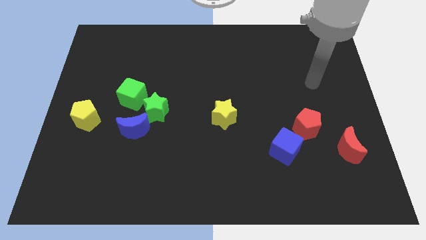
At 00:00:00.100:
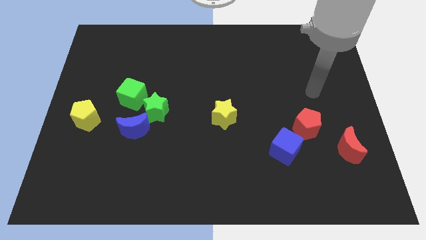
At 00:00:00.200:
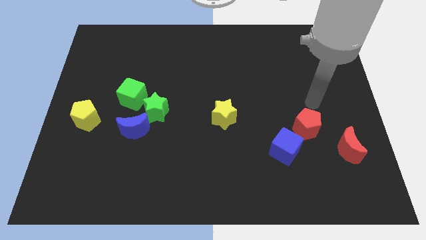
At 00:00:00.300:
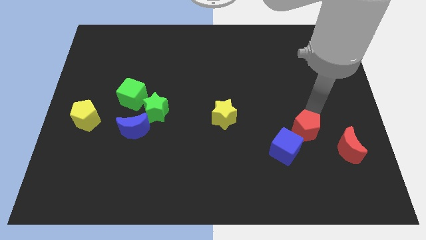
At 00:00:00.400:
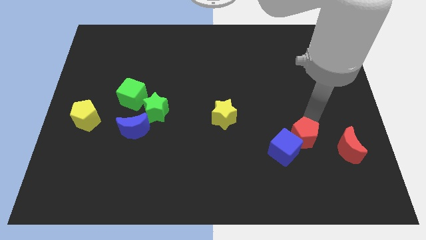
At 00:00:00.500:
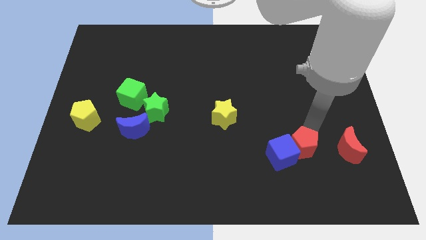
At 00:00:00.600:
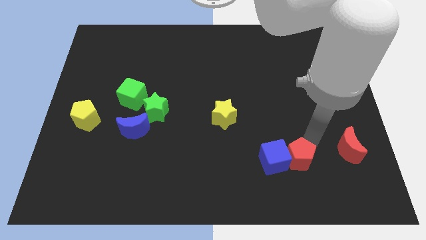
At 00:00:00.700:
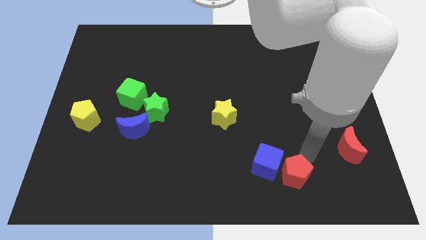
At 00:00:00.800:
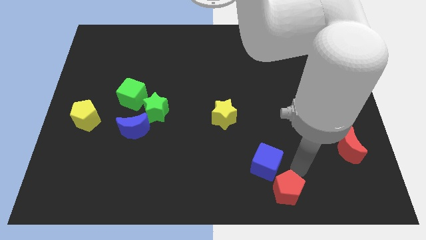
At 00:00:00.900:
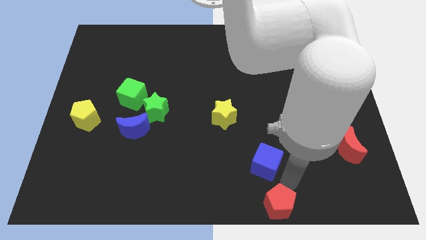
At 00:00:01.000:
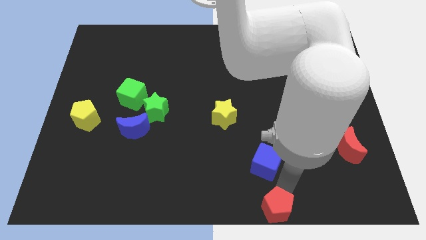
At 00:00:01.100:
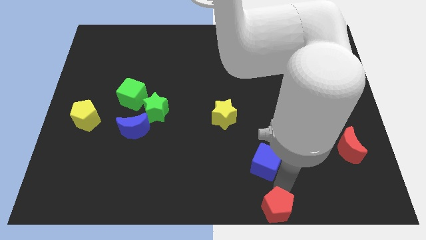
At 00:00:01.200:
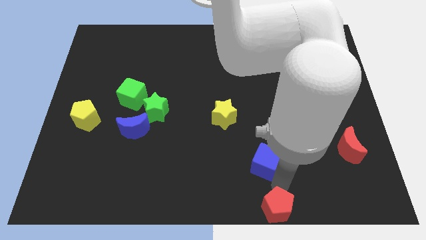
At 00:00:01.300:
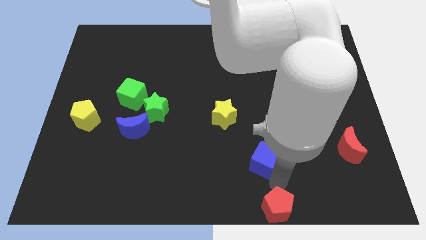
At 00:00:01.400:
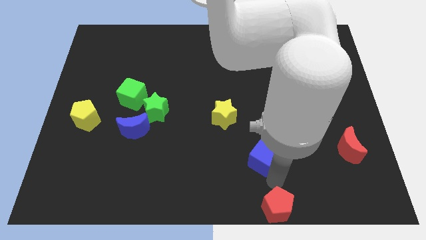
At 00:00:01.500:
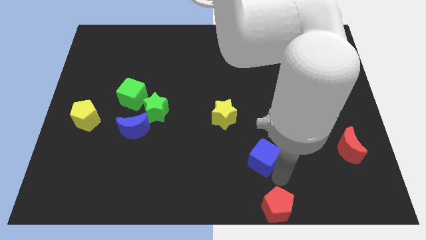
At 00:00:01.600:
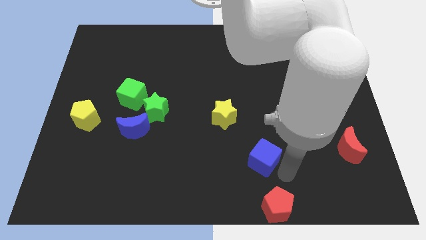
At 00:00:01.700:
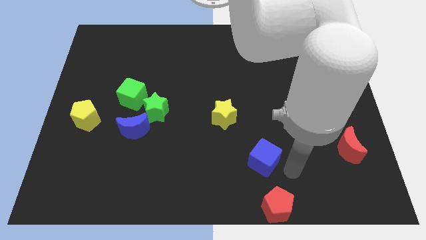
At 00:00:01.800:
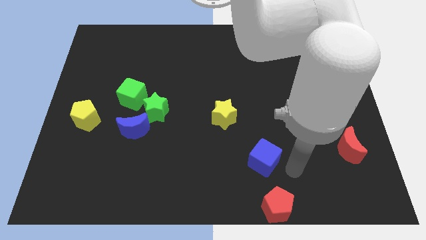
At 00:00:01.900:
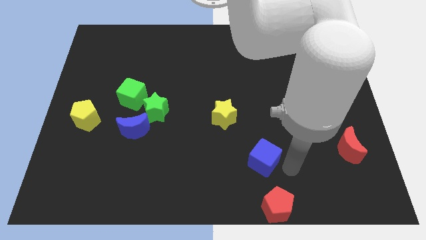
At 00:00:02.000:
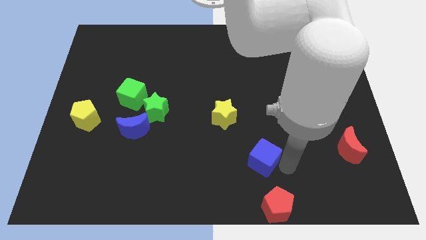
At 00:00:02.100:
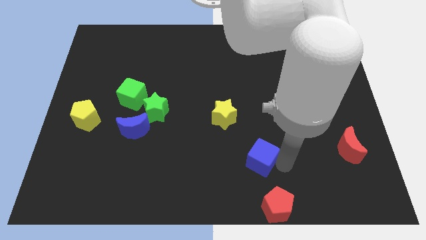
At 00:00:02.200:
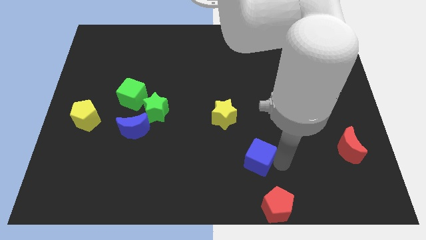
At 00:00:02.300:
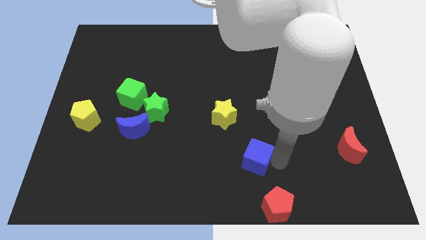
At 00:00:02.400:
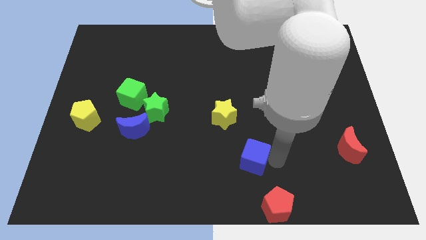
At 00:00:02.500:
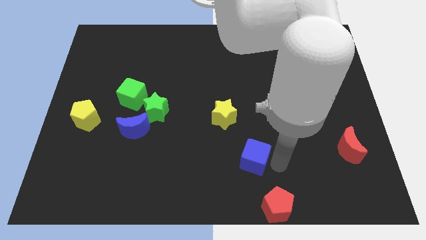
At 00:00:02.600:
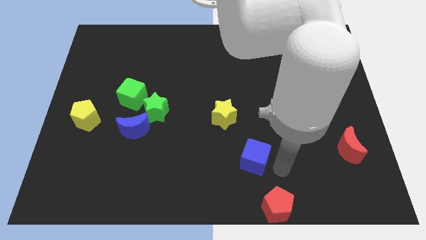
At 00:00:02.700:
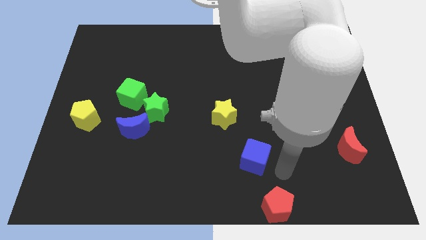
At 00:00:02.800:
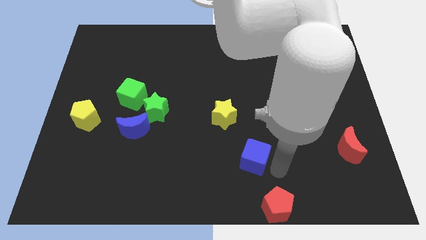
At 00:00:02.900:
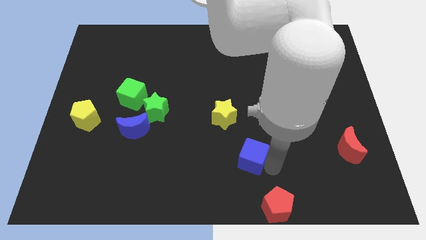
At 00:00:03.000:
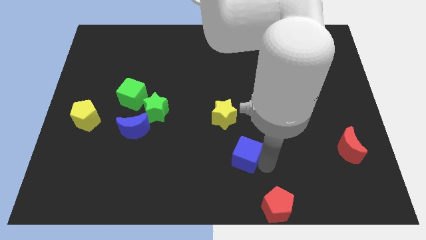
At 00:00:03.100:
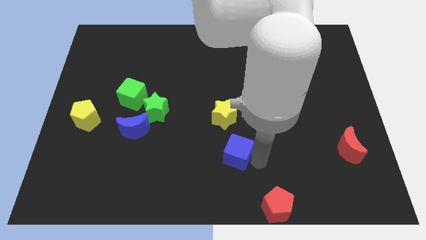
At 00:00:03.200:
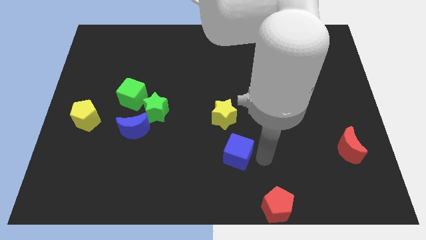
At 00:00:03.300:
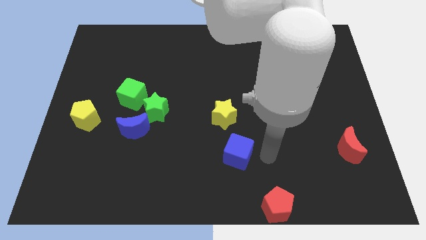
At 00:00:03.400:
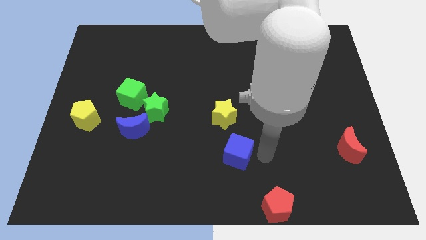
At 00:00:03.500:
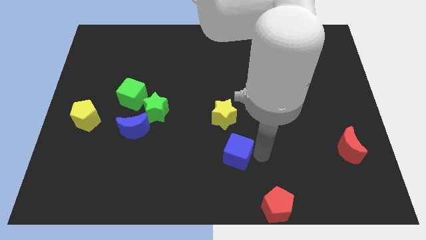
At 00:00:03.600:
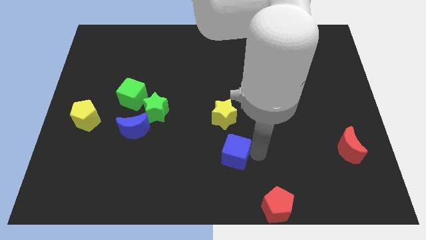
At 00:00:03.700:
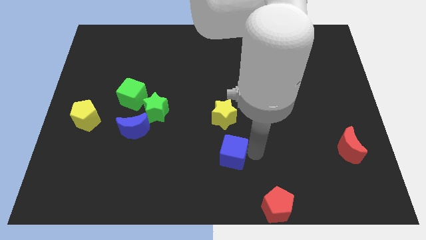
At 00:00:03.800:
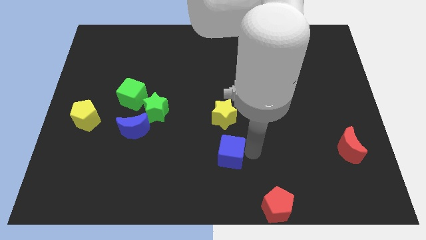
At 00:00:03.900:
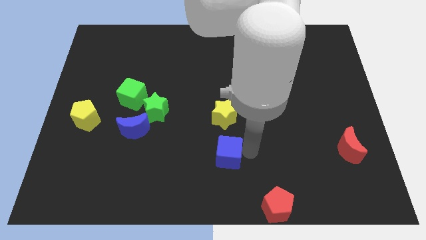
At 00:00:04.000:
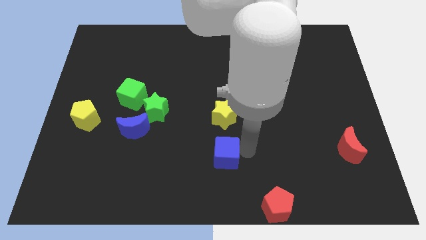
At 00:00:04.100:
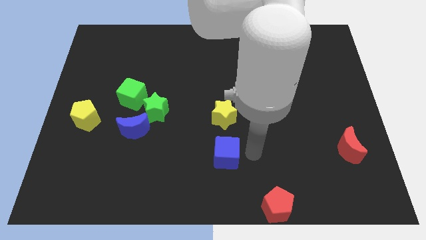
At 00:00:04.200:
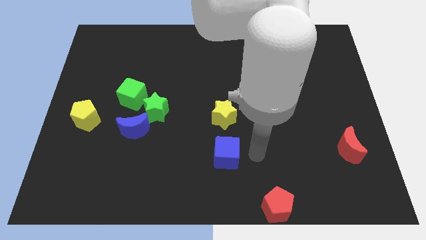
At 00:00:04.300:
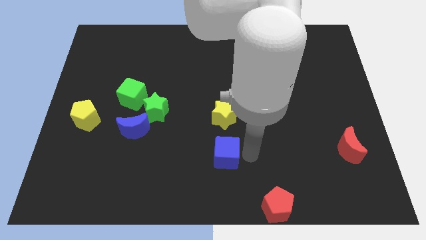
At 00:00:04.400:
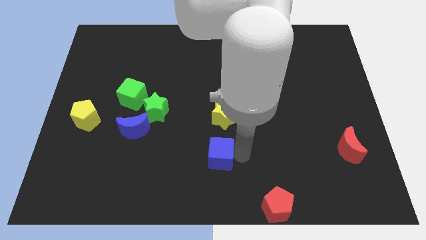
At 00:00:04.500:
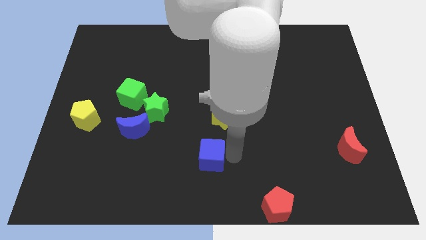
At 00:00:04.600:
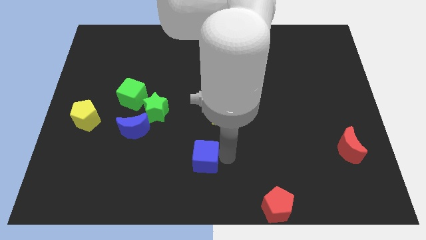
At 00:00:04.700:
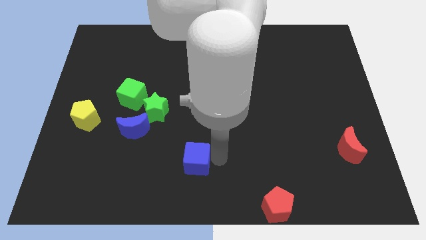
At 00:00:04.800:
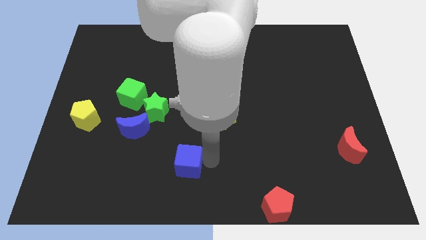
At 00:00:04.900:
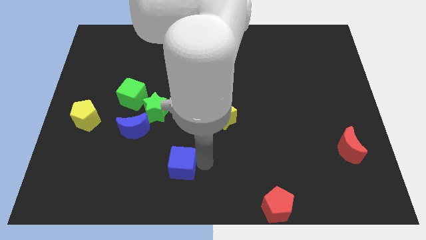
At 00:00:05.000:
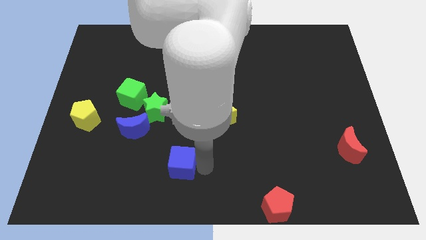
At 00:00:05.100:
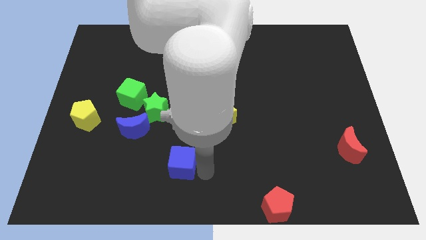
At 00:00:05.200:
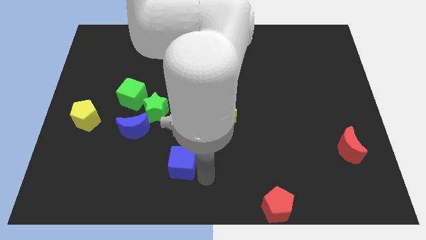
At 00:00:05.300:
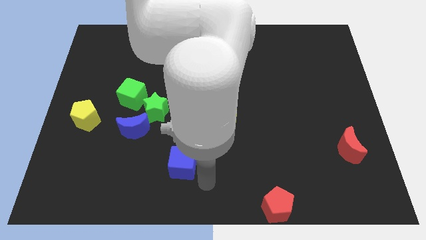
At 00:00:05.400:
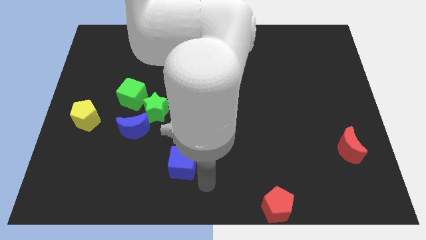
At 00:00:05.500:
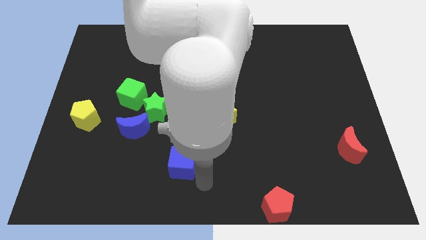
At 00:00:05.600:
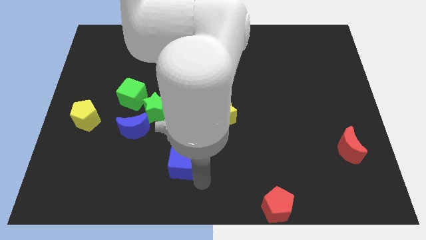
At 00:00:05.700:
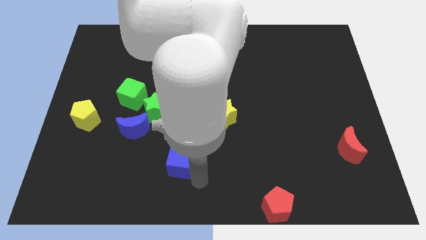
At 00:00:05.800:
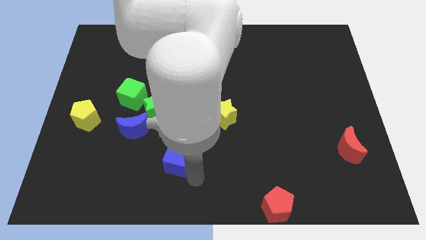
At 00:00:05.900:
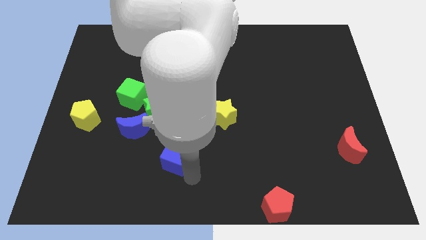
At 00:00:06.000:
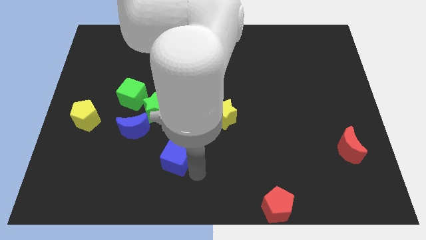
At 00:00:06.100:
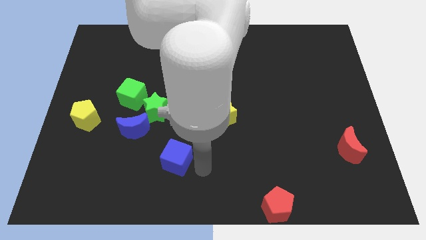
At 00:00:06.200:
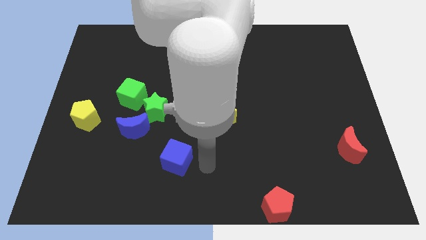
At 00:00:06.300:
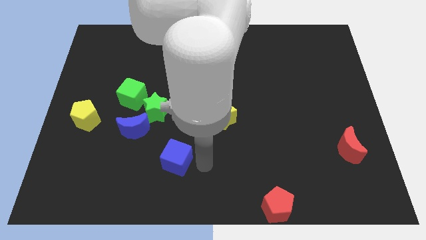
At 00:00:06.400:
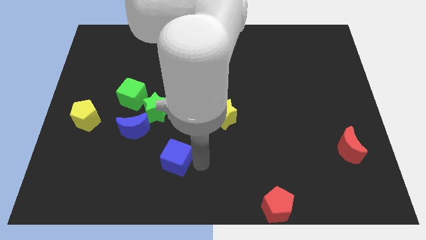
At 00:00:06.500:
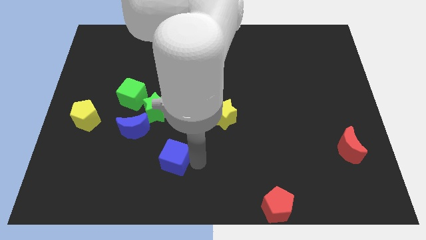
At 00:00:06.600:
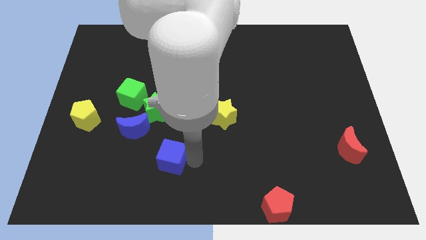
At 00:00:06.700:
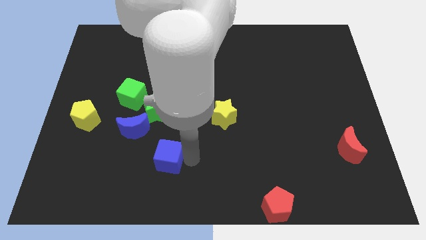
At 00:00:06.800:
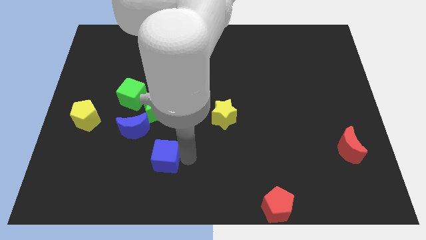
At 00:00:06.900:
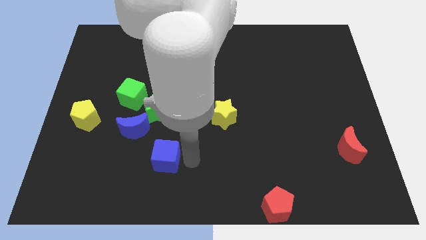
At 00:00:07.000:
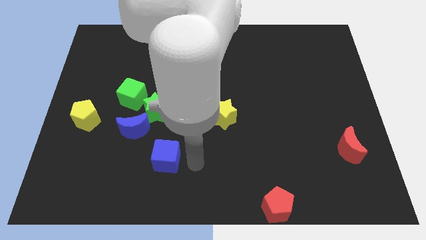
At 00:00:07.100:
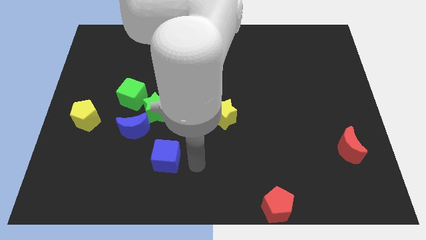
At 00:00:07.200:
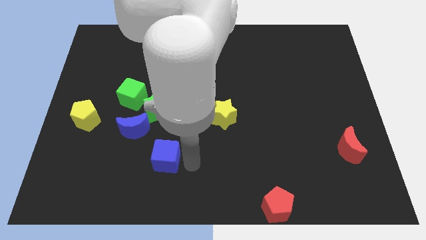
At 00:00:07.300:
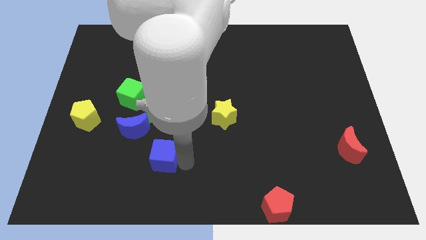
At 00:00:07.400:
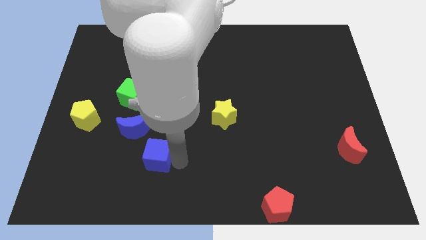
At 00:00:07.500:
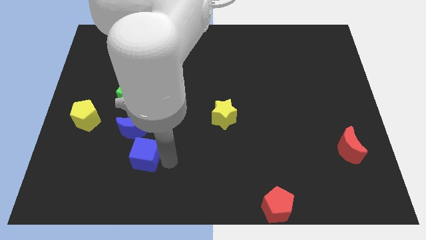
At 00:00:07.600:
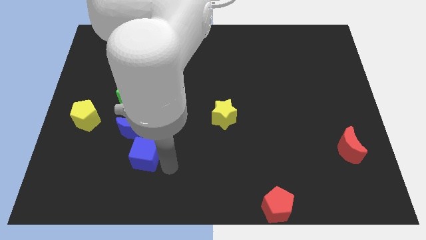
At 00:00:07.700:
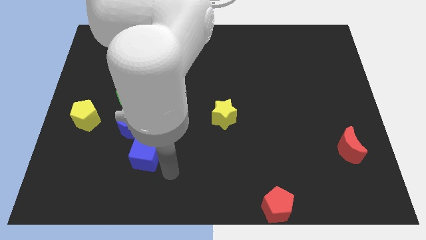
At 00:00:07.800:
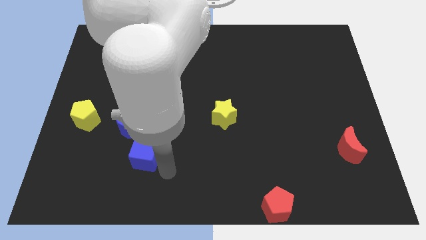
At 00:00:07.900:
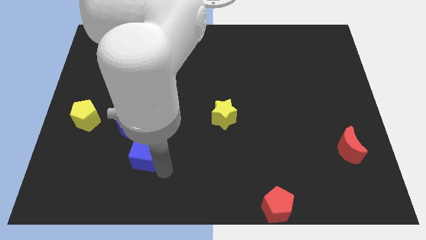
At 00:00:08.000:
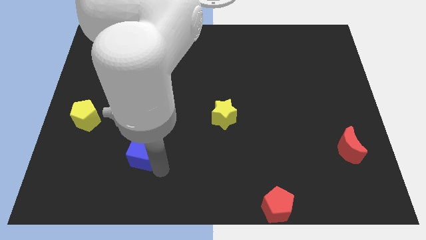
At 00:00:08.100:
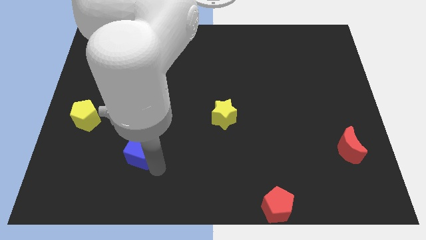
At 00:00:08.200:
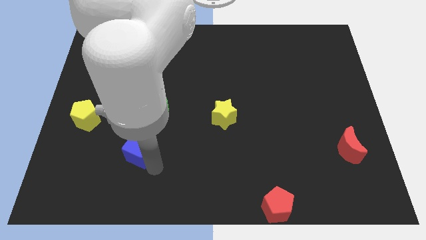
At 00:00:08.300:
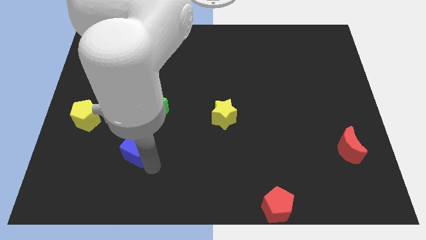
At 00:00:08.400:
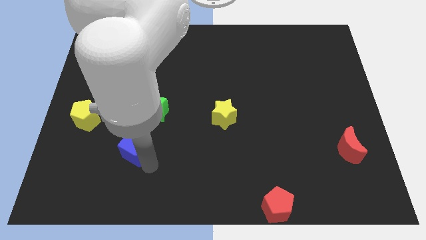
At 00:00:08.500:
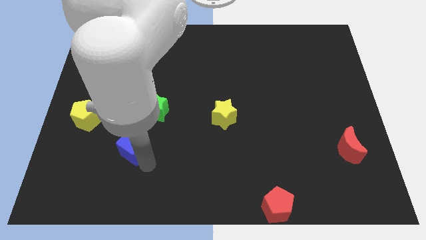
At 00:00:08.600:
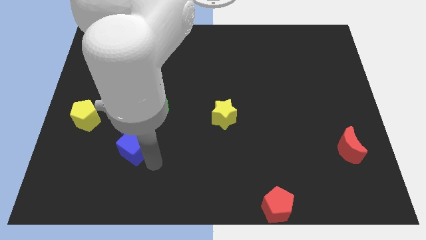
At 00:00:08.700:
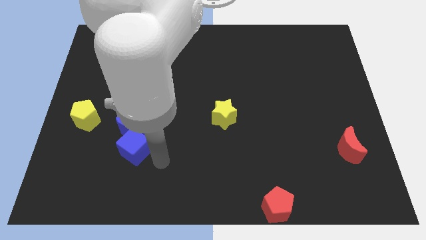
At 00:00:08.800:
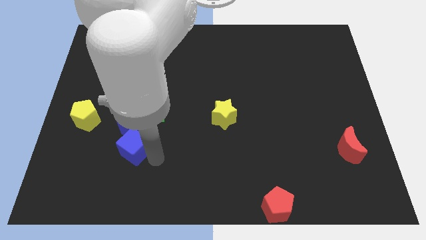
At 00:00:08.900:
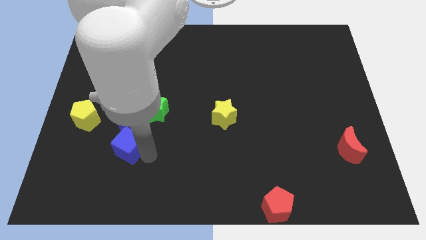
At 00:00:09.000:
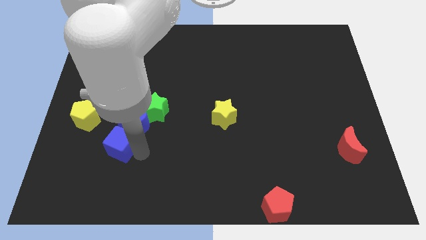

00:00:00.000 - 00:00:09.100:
move the blue cube to the bottom right side of the yellow pentagon
